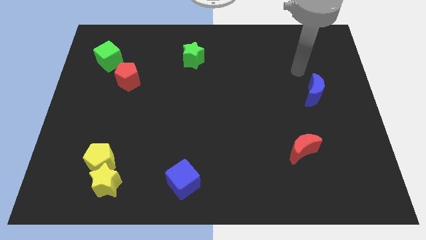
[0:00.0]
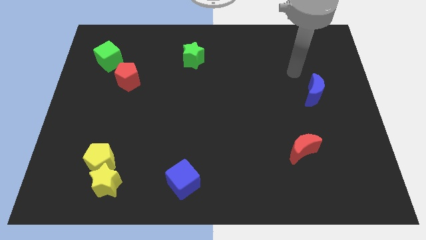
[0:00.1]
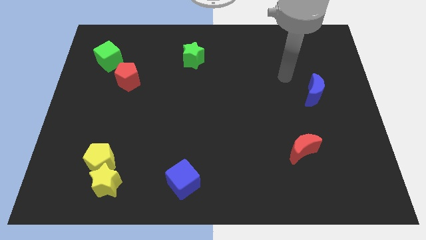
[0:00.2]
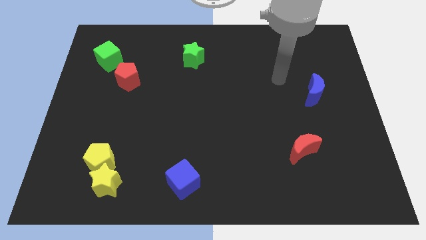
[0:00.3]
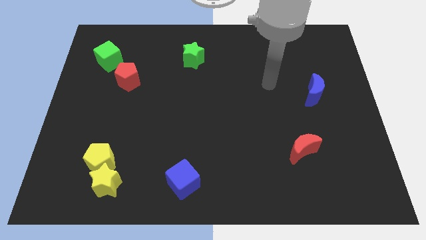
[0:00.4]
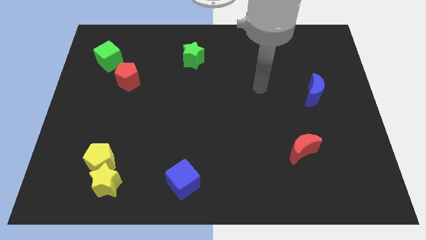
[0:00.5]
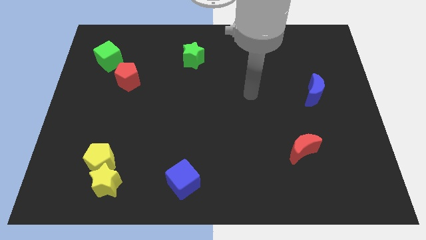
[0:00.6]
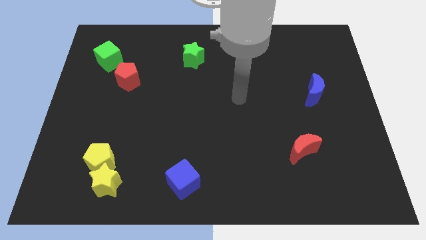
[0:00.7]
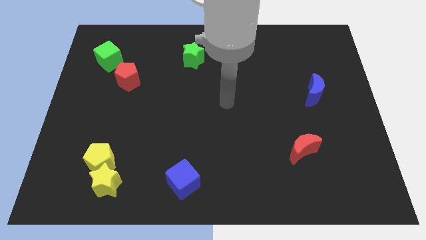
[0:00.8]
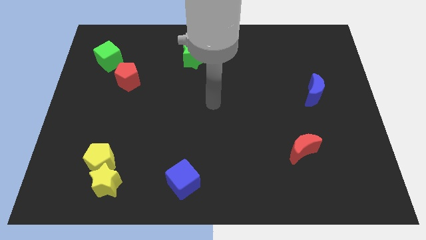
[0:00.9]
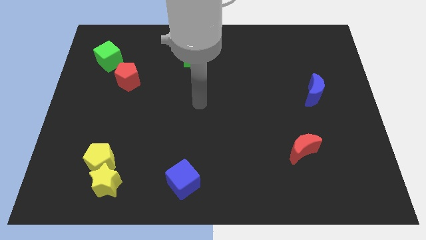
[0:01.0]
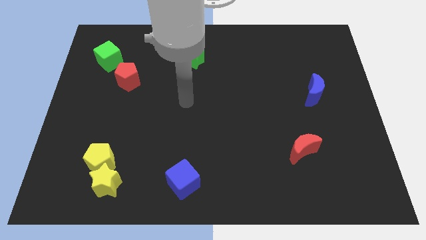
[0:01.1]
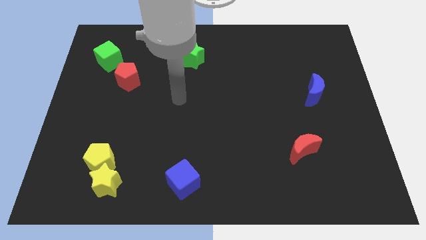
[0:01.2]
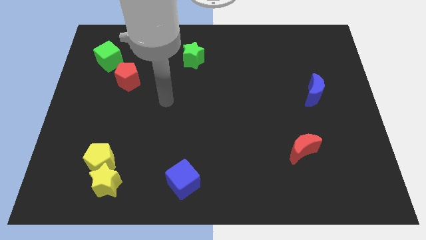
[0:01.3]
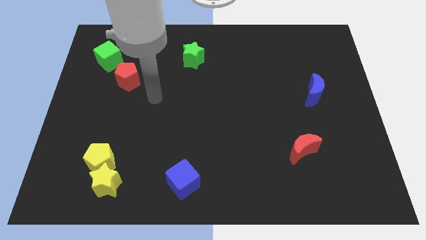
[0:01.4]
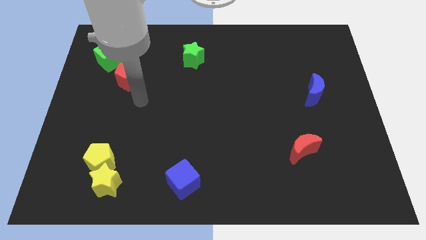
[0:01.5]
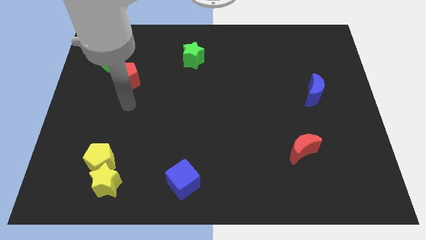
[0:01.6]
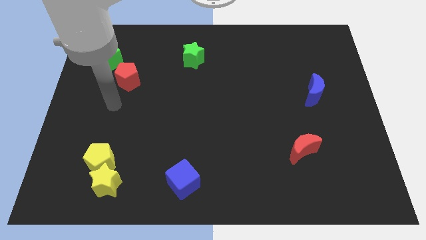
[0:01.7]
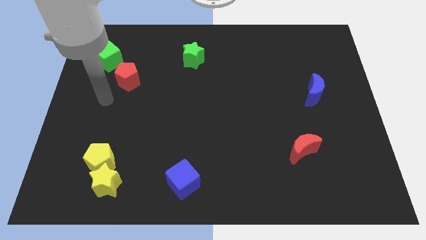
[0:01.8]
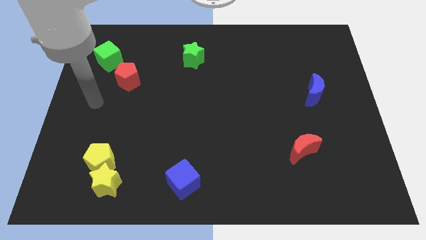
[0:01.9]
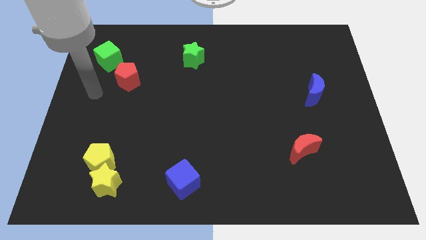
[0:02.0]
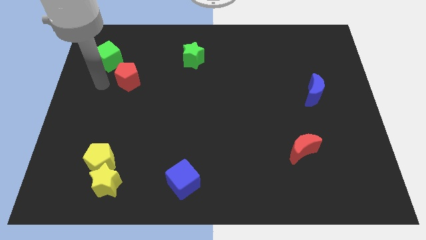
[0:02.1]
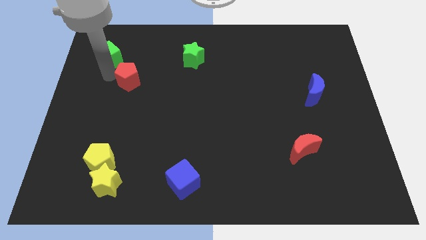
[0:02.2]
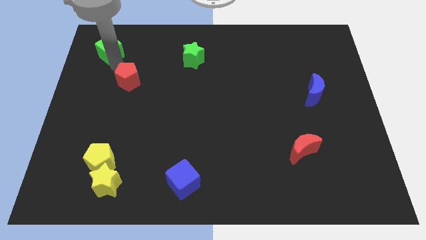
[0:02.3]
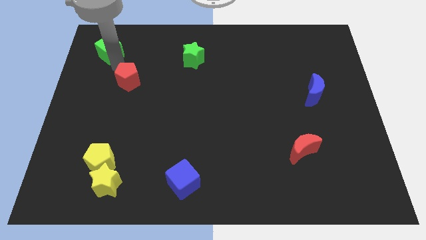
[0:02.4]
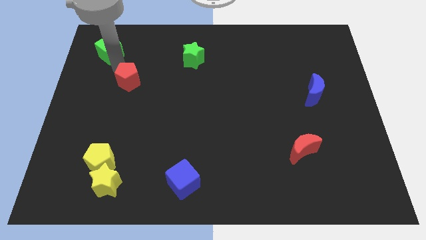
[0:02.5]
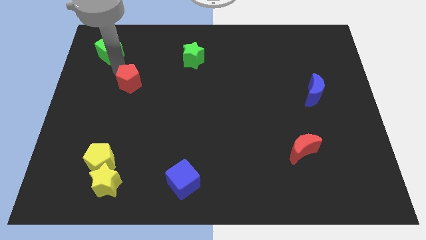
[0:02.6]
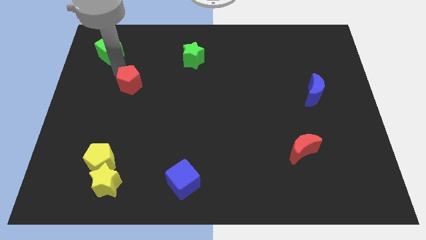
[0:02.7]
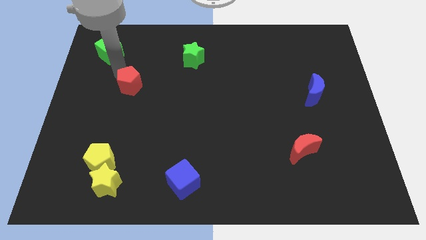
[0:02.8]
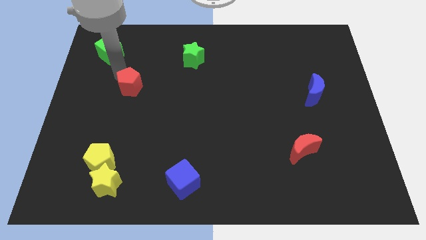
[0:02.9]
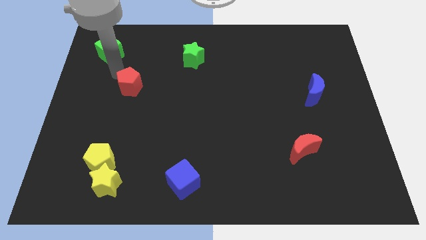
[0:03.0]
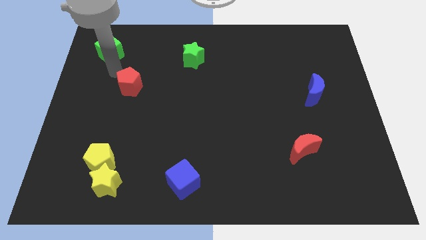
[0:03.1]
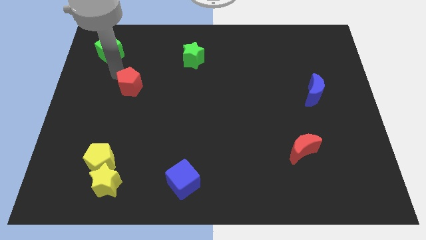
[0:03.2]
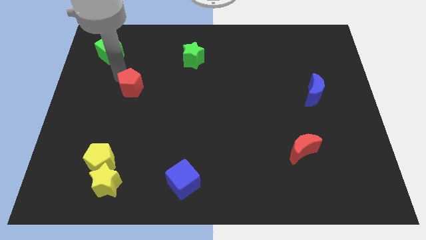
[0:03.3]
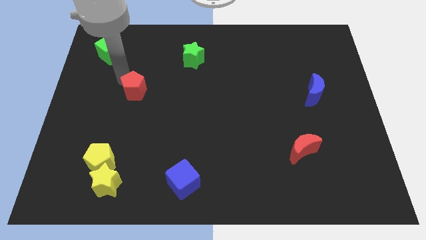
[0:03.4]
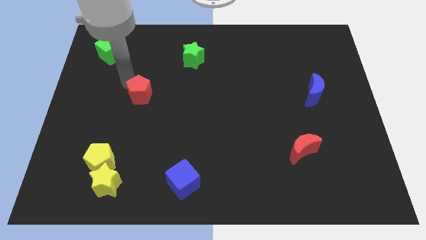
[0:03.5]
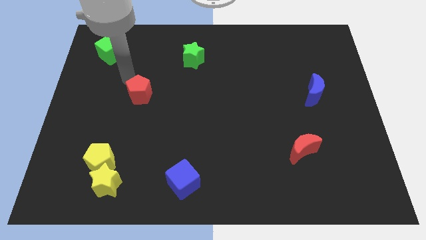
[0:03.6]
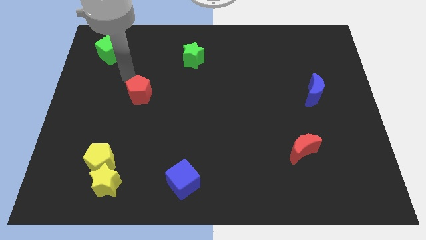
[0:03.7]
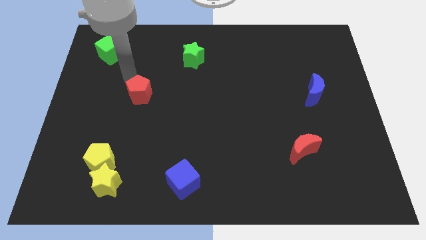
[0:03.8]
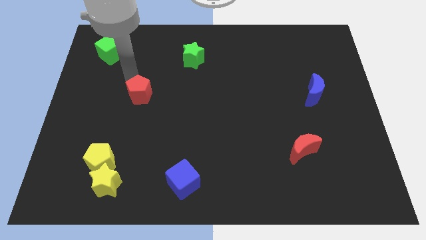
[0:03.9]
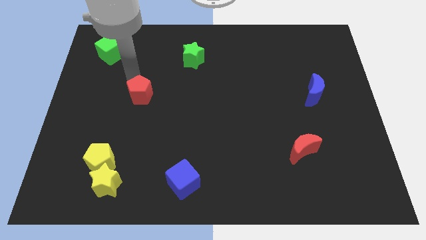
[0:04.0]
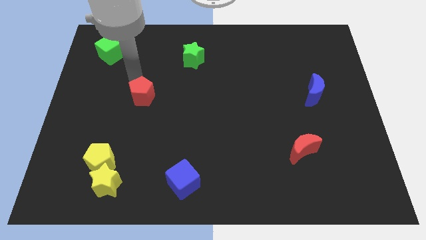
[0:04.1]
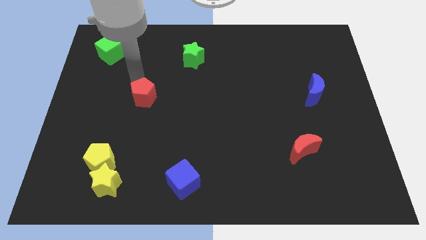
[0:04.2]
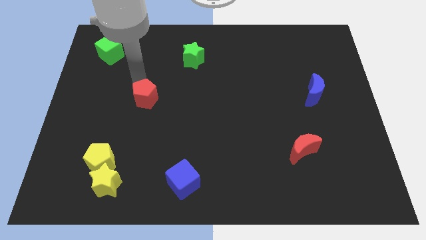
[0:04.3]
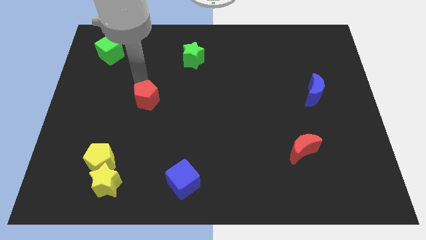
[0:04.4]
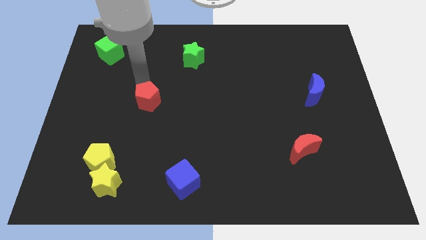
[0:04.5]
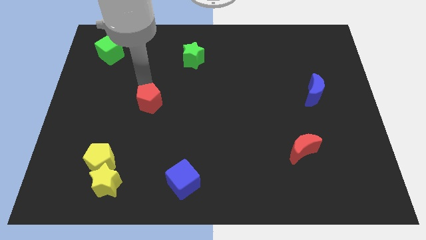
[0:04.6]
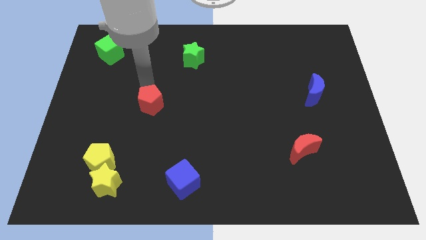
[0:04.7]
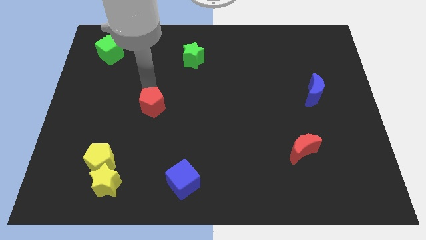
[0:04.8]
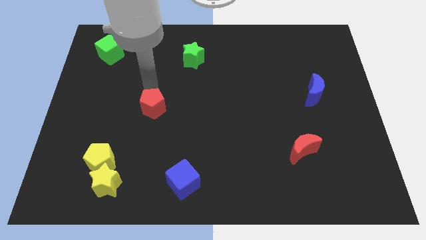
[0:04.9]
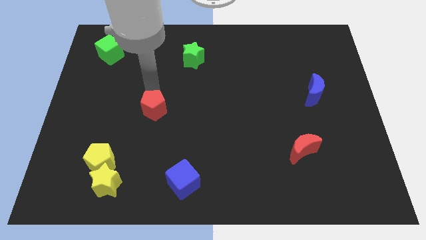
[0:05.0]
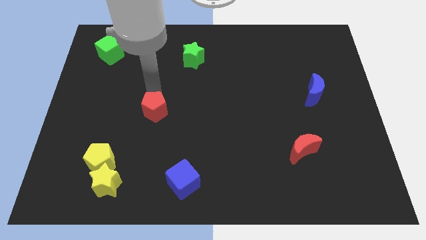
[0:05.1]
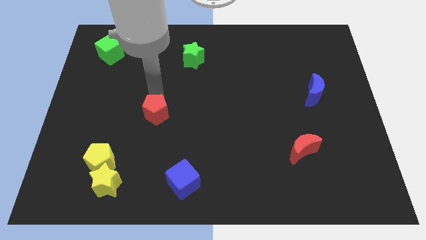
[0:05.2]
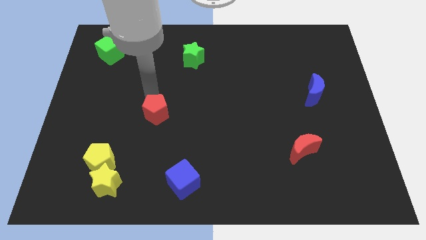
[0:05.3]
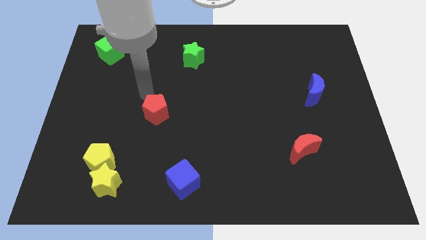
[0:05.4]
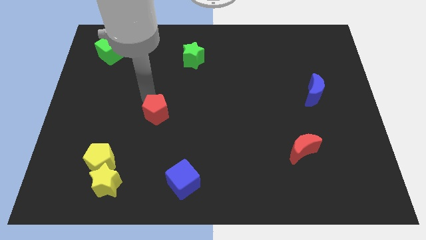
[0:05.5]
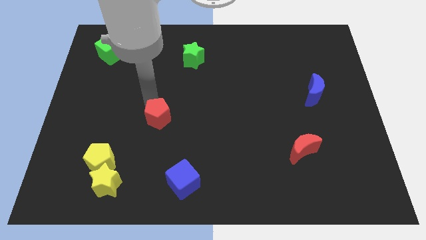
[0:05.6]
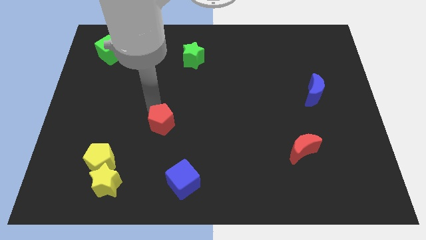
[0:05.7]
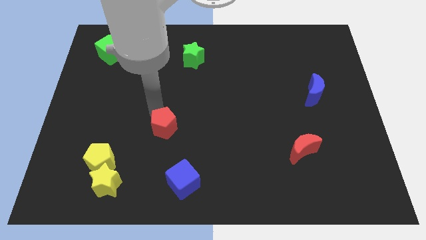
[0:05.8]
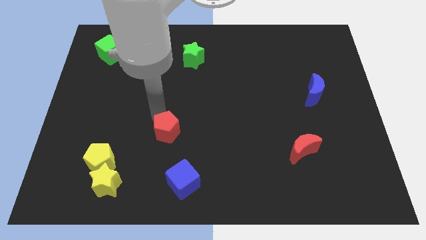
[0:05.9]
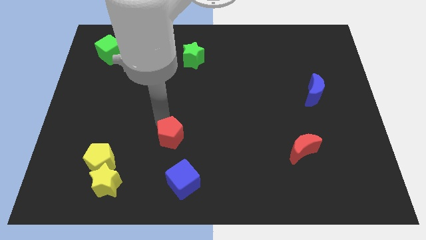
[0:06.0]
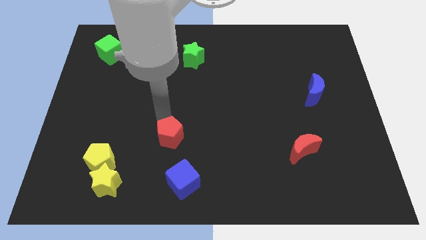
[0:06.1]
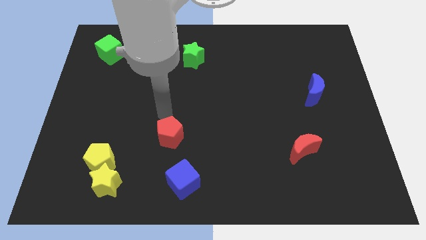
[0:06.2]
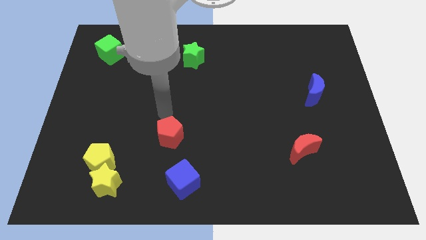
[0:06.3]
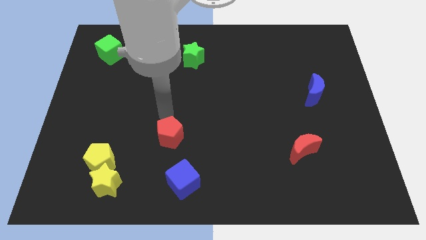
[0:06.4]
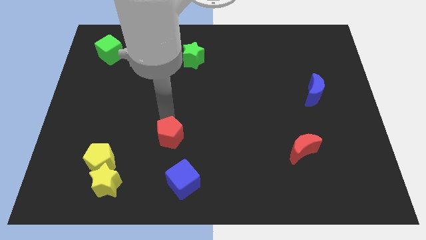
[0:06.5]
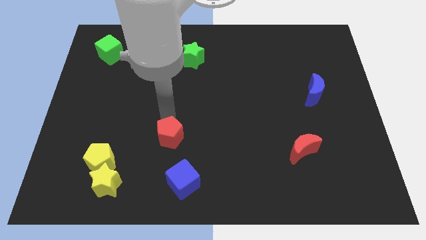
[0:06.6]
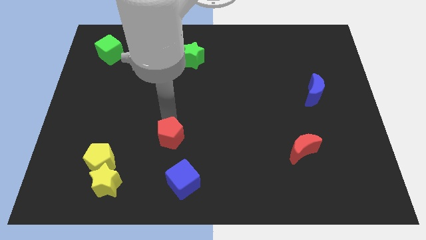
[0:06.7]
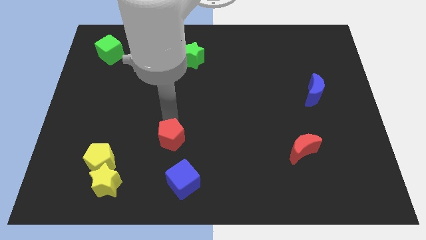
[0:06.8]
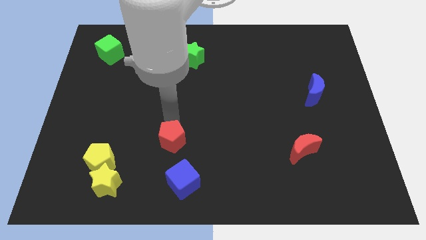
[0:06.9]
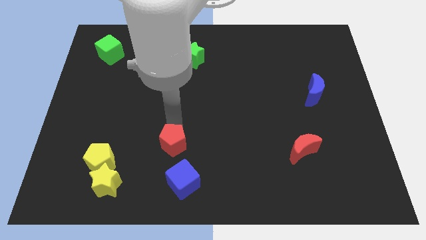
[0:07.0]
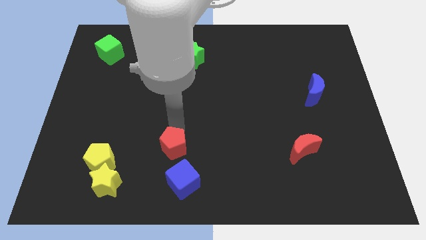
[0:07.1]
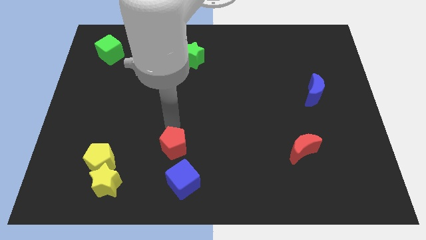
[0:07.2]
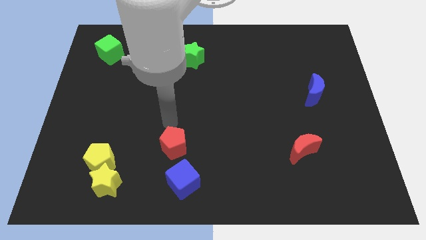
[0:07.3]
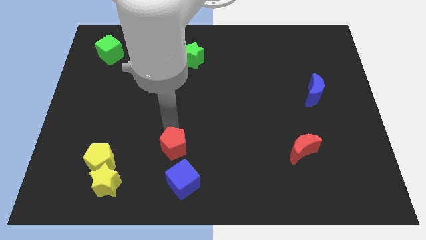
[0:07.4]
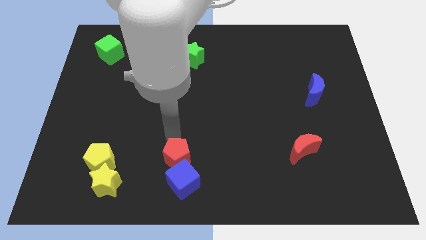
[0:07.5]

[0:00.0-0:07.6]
slide the red pentagon towards the blue cube
